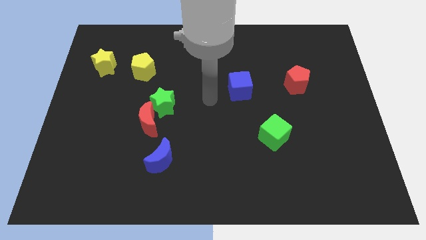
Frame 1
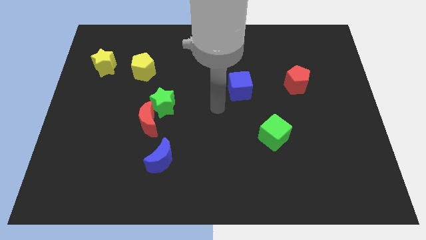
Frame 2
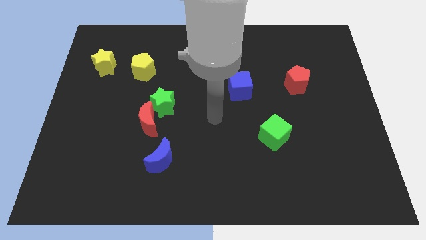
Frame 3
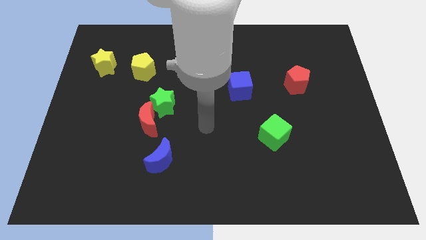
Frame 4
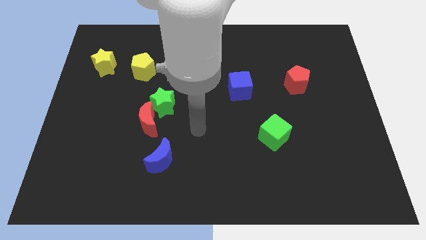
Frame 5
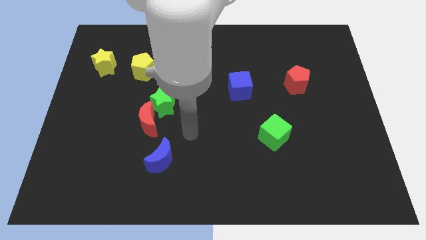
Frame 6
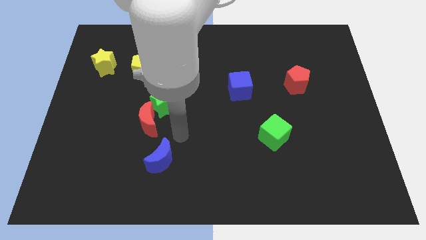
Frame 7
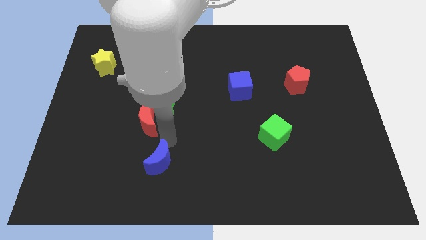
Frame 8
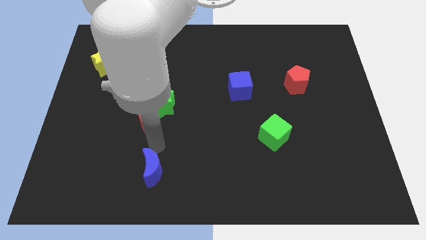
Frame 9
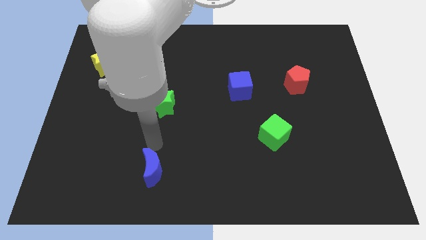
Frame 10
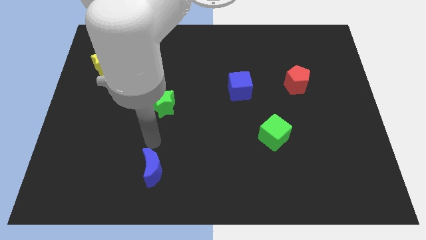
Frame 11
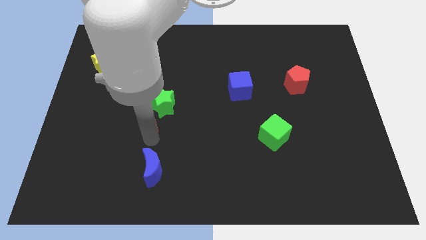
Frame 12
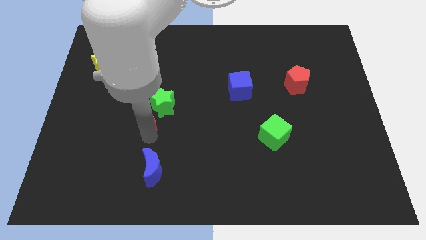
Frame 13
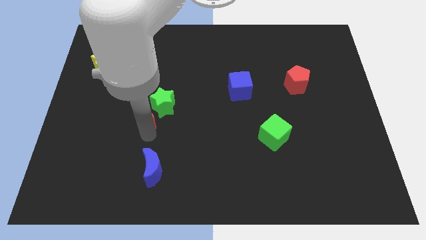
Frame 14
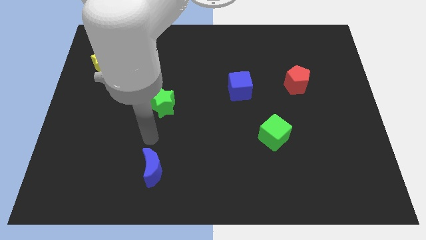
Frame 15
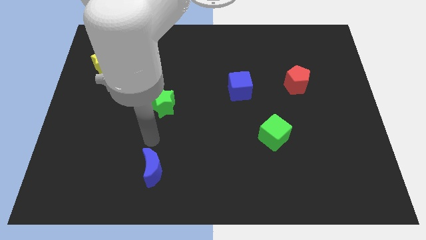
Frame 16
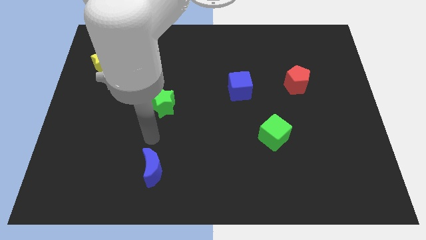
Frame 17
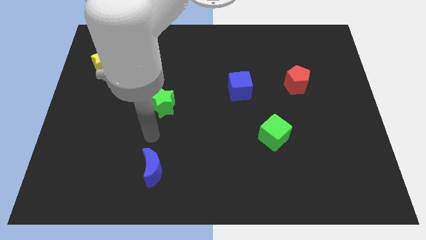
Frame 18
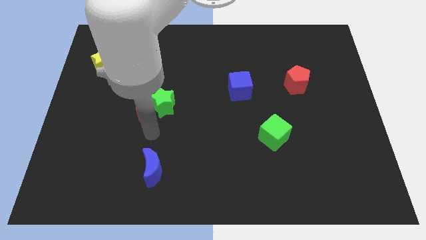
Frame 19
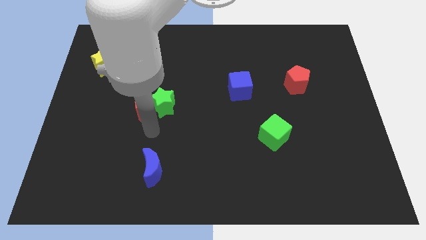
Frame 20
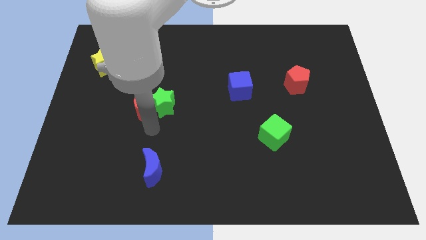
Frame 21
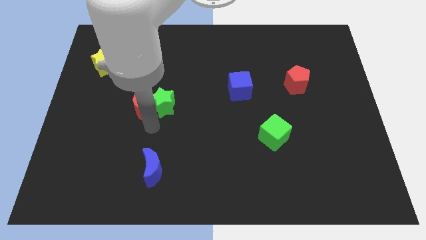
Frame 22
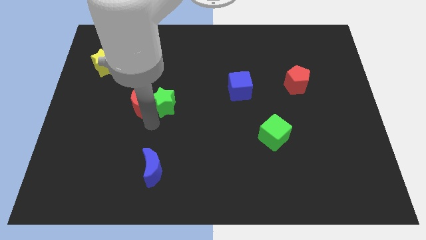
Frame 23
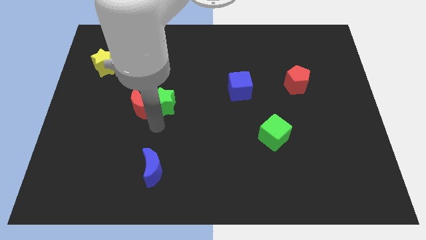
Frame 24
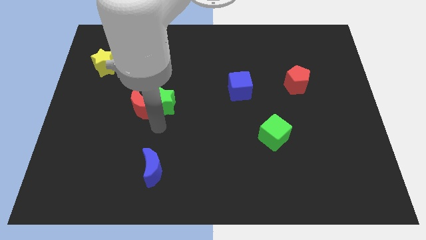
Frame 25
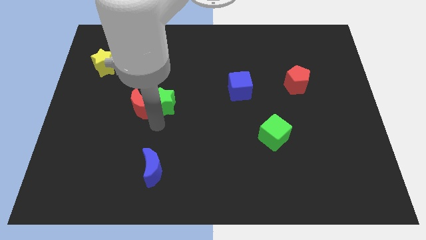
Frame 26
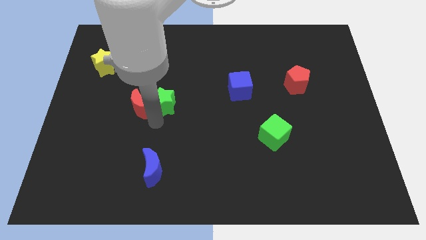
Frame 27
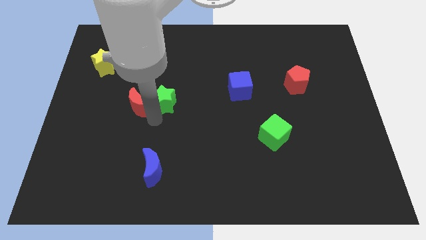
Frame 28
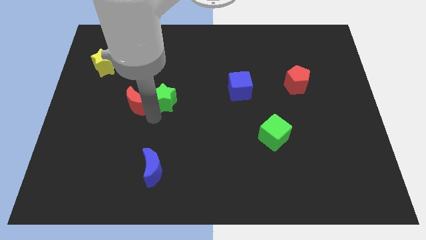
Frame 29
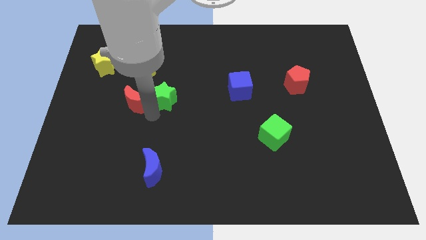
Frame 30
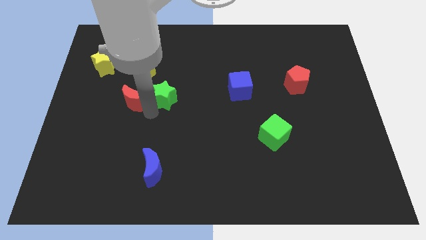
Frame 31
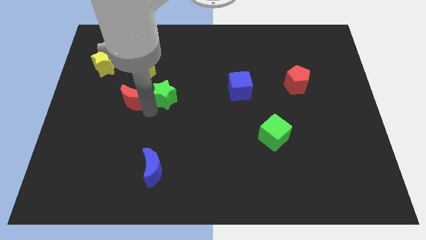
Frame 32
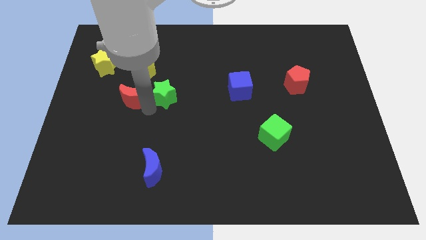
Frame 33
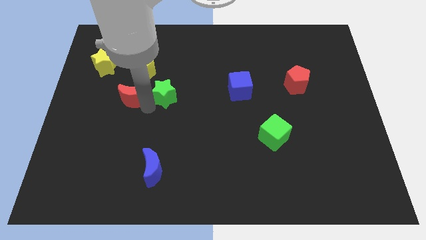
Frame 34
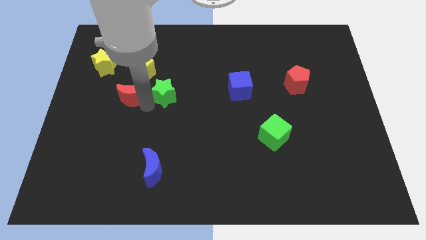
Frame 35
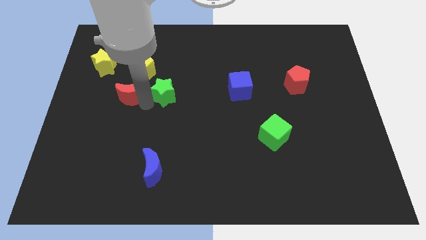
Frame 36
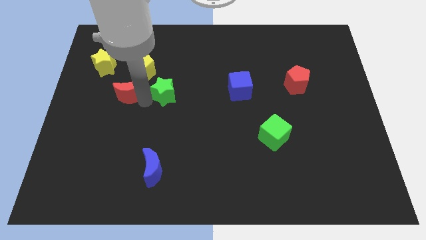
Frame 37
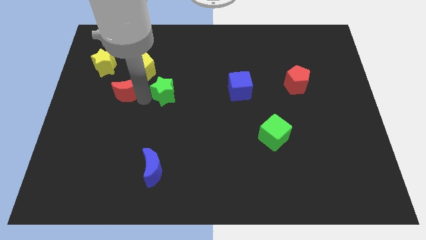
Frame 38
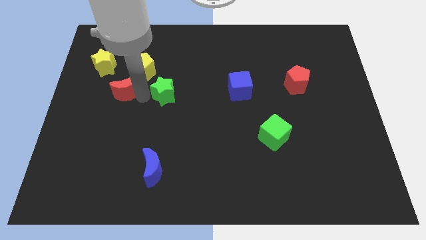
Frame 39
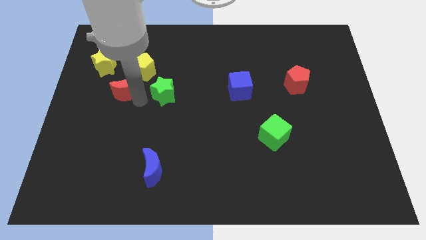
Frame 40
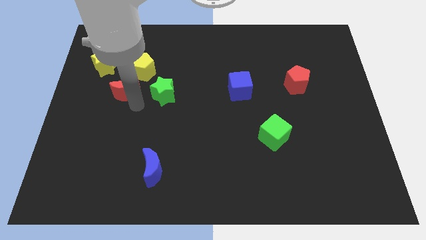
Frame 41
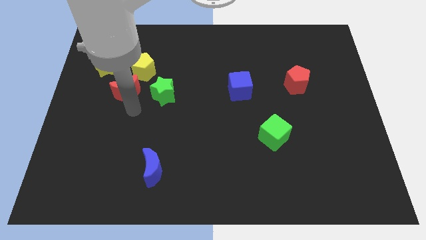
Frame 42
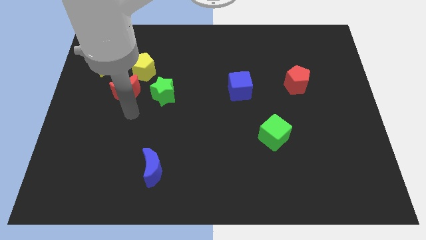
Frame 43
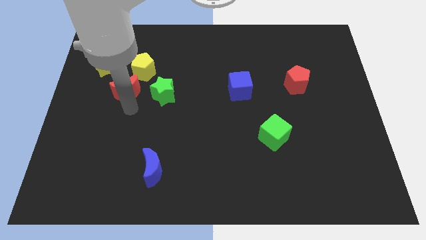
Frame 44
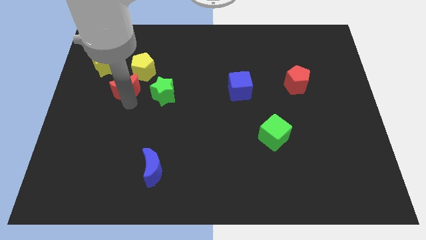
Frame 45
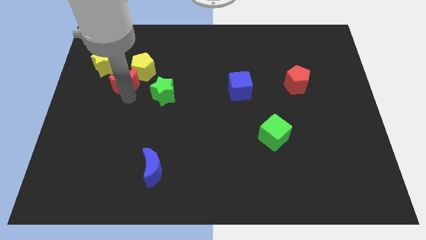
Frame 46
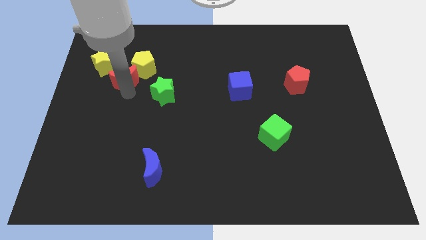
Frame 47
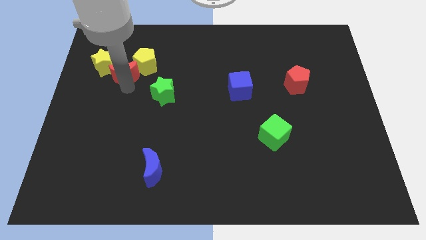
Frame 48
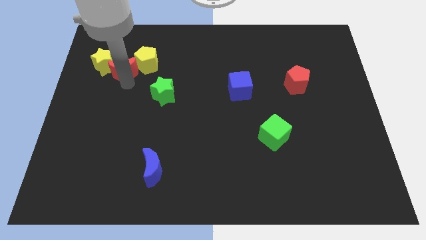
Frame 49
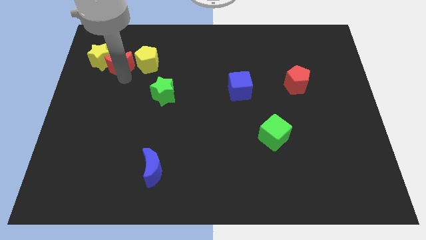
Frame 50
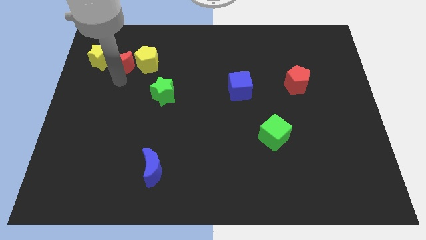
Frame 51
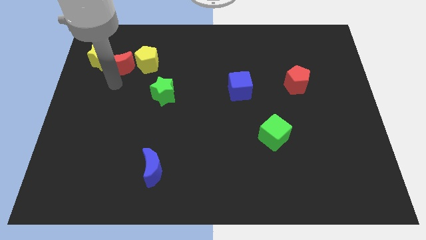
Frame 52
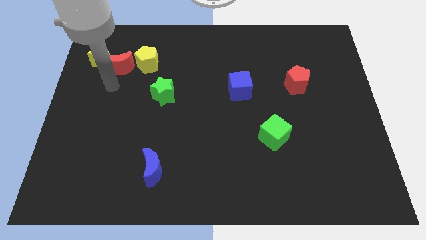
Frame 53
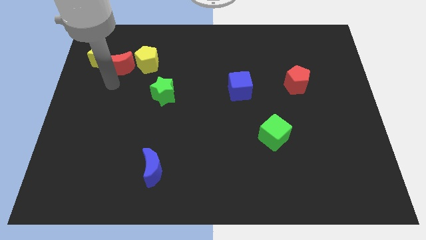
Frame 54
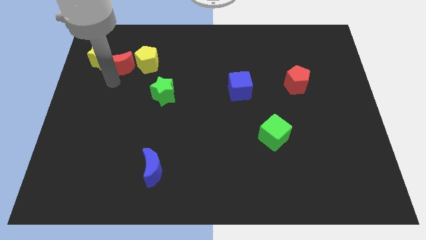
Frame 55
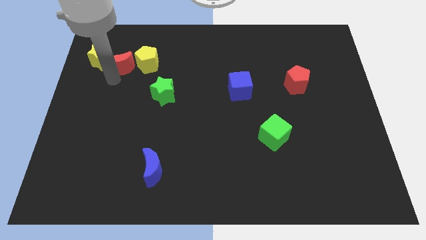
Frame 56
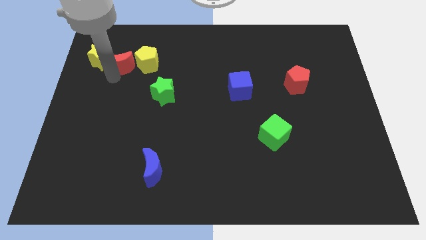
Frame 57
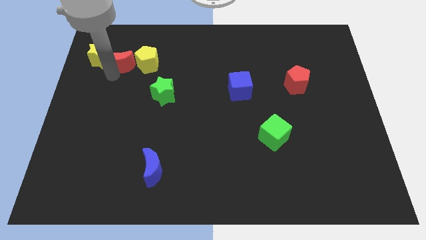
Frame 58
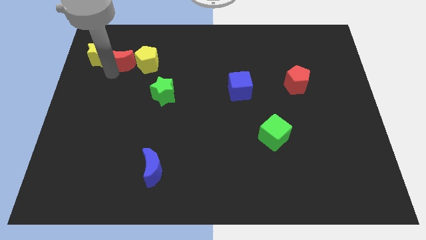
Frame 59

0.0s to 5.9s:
put the red moon diagonally up and to the left of the yellow pentagon

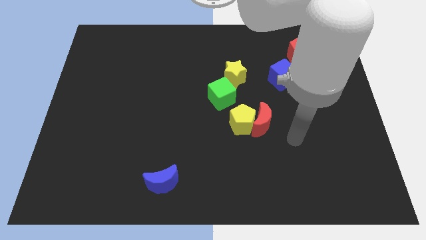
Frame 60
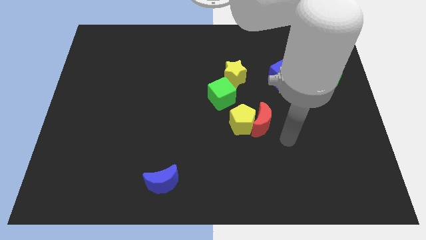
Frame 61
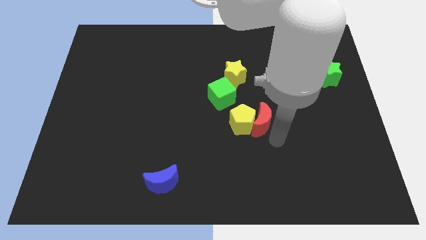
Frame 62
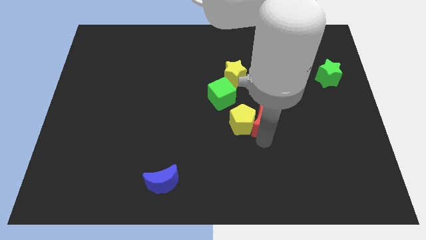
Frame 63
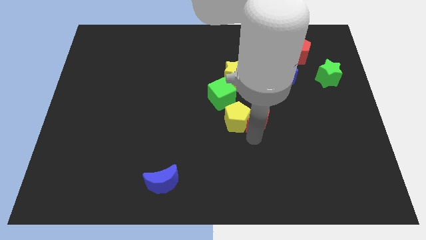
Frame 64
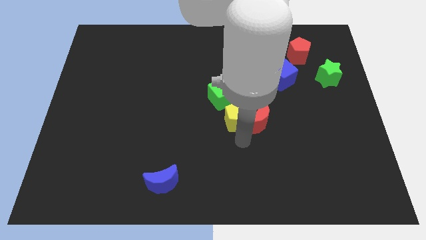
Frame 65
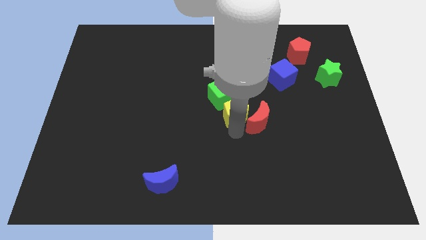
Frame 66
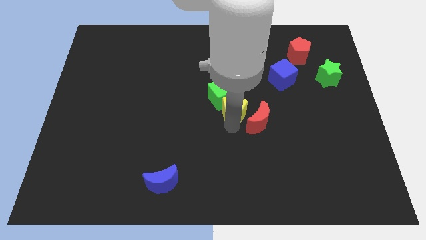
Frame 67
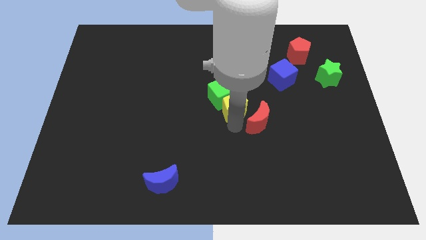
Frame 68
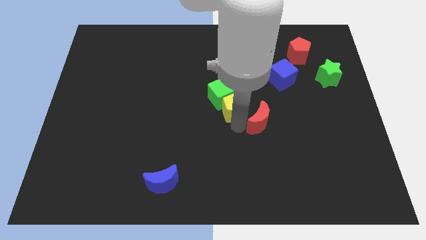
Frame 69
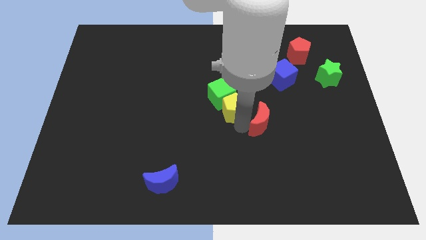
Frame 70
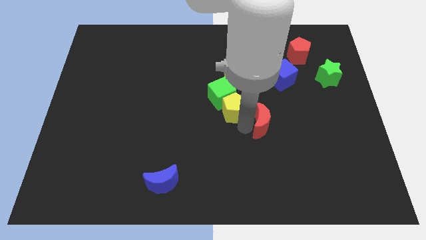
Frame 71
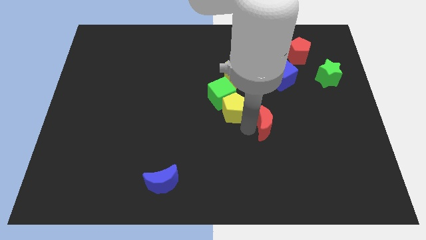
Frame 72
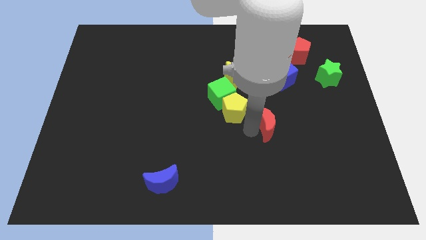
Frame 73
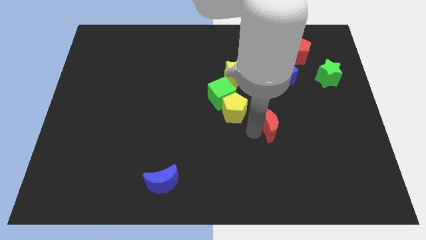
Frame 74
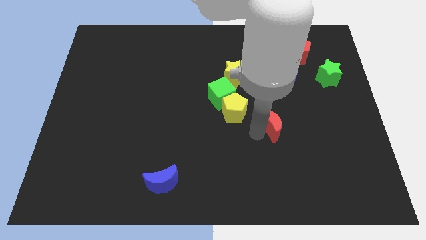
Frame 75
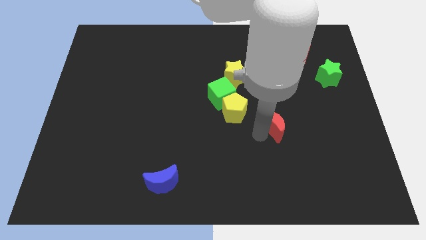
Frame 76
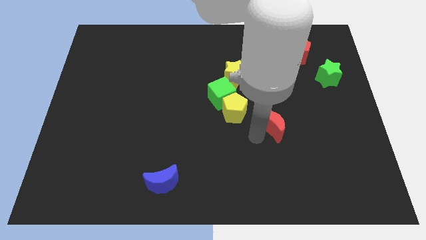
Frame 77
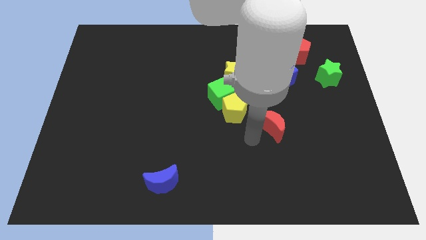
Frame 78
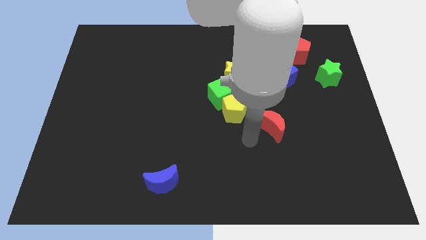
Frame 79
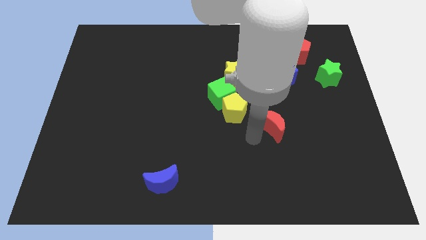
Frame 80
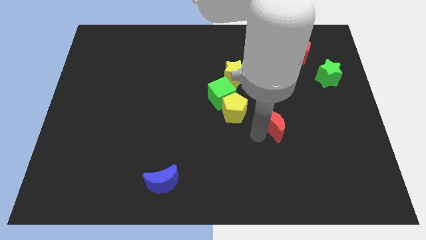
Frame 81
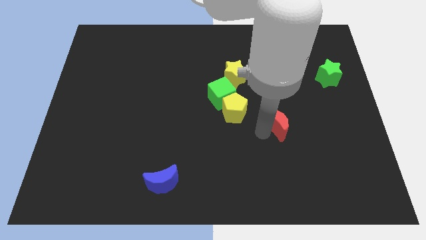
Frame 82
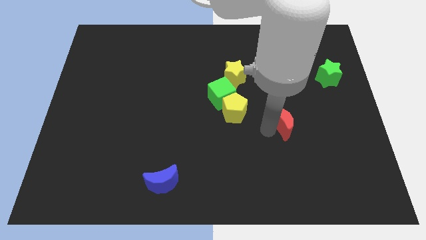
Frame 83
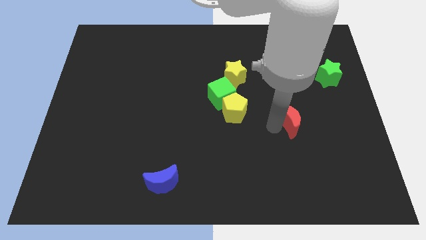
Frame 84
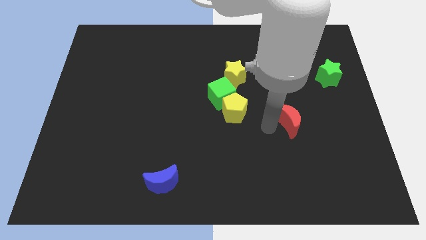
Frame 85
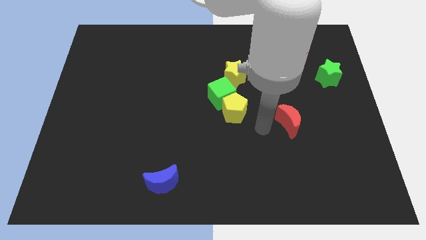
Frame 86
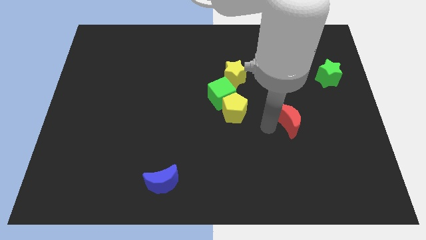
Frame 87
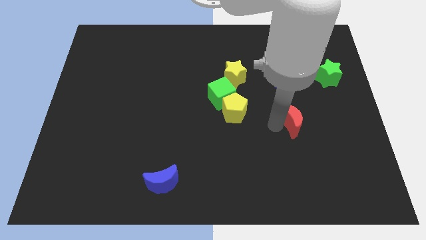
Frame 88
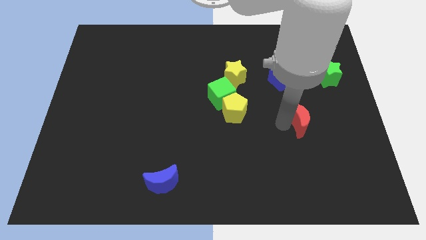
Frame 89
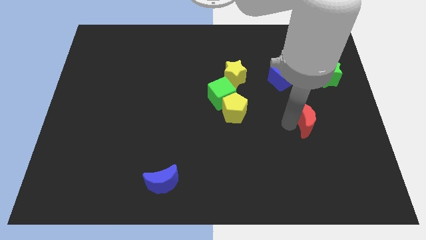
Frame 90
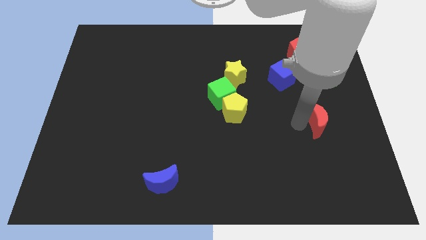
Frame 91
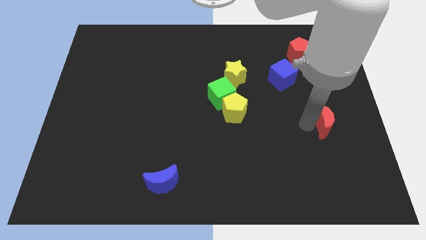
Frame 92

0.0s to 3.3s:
slide the red moon to the bottom side of the green star
